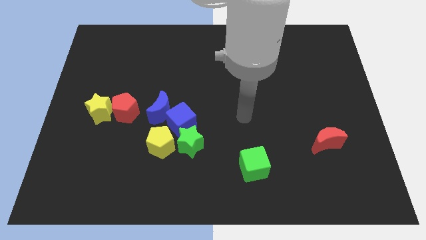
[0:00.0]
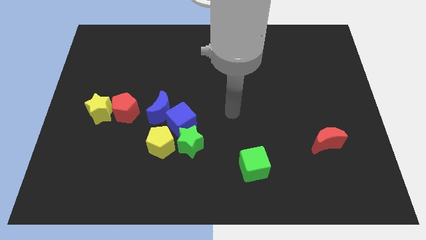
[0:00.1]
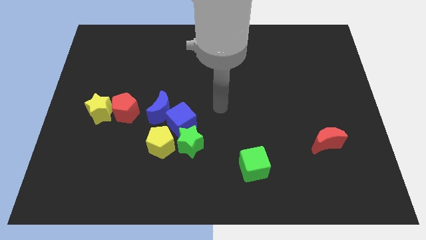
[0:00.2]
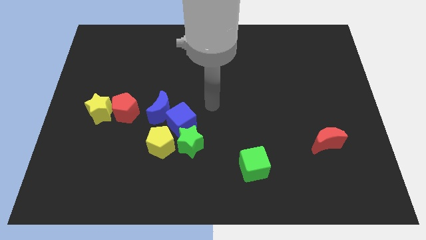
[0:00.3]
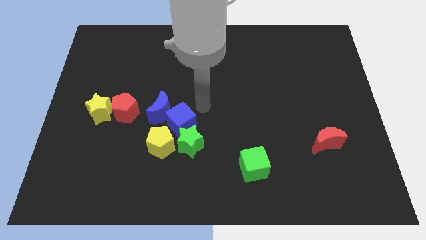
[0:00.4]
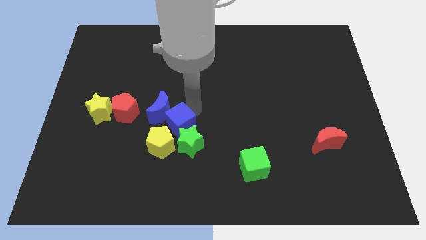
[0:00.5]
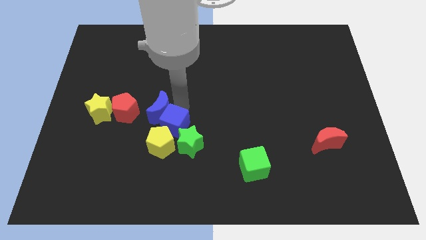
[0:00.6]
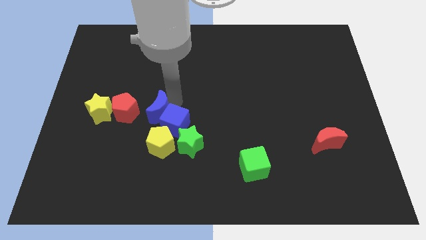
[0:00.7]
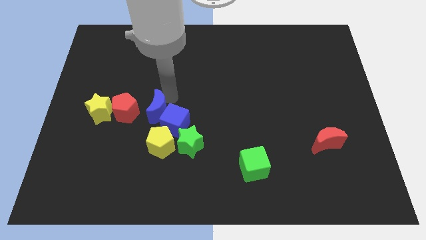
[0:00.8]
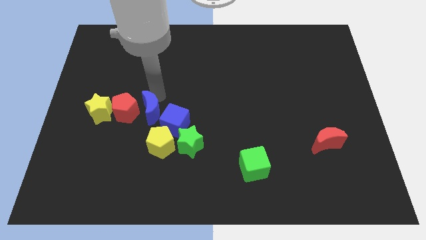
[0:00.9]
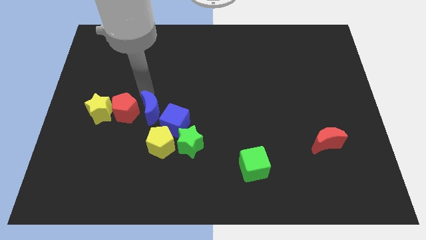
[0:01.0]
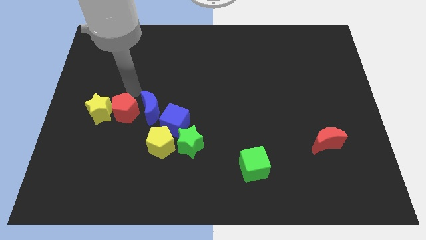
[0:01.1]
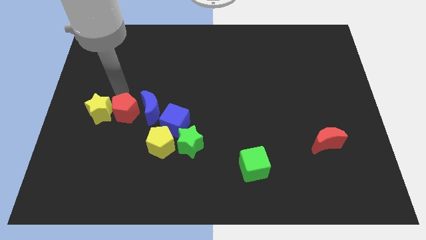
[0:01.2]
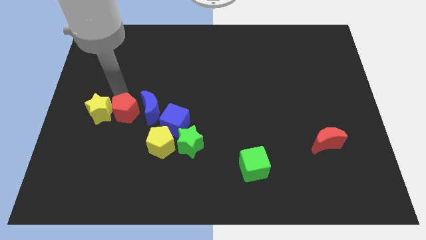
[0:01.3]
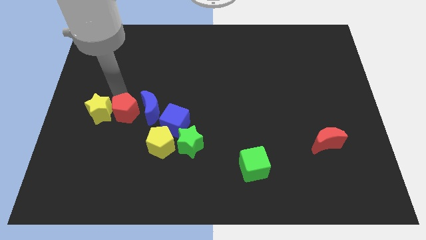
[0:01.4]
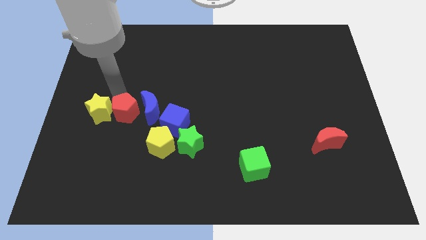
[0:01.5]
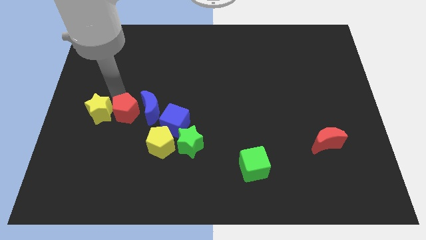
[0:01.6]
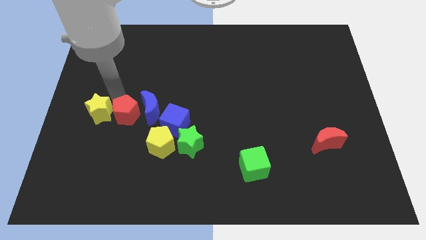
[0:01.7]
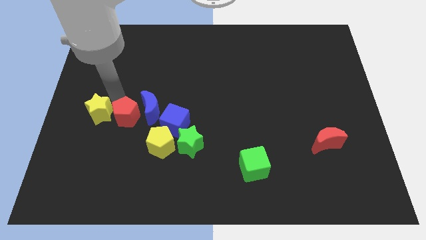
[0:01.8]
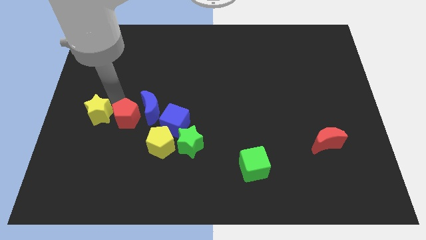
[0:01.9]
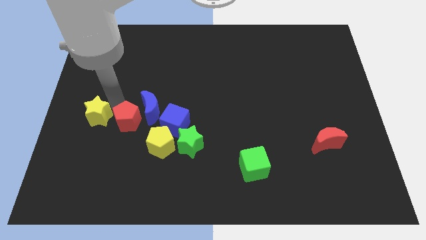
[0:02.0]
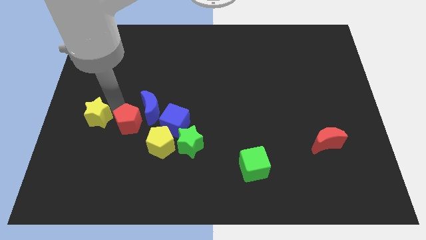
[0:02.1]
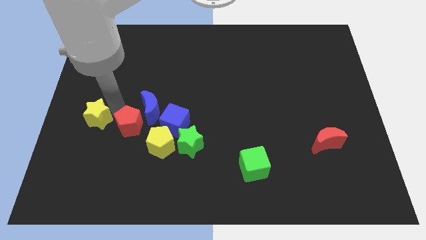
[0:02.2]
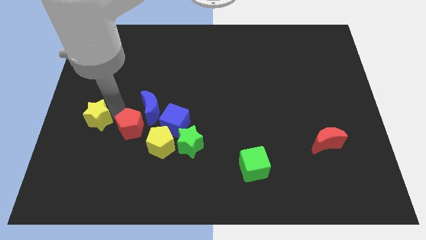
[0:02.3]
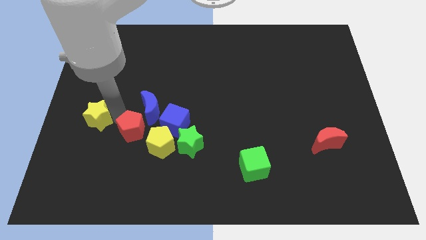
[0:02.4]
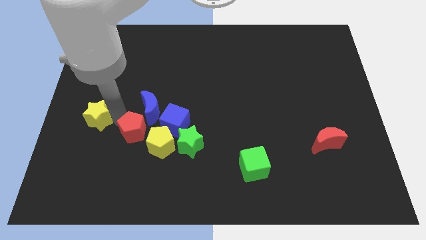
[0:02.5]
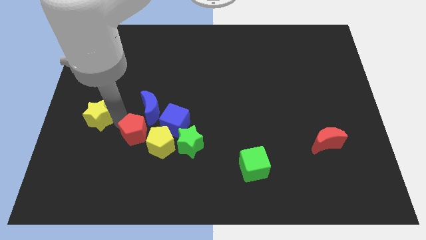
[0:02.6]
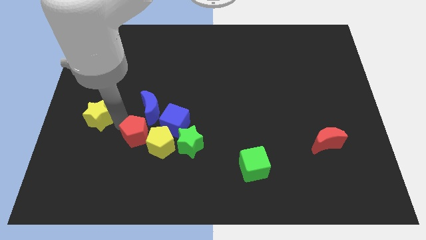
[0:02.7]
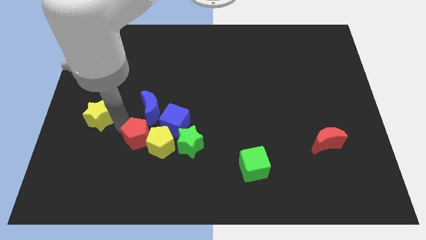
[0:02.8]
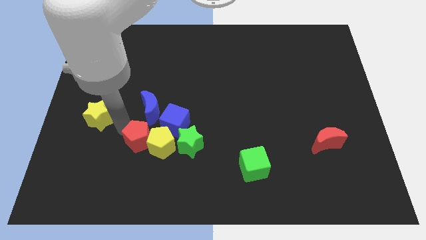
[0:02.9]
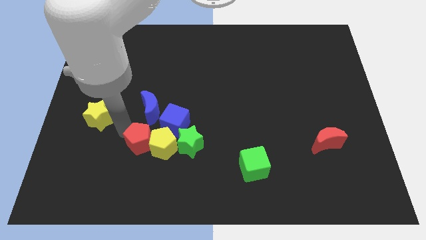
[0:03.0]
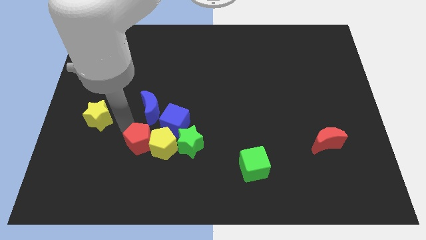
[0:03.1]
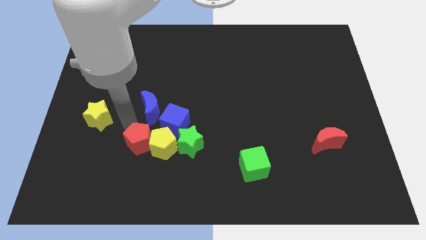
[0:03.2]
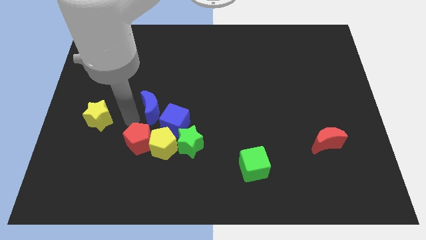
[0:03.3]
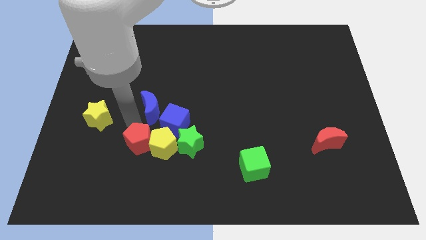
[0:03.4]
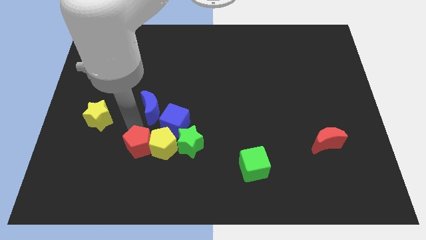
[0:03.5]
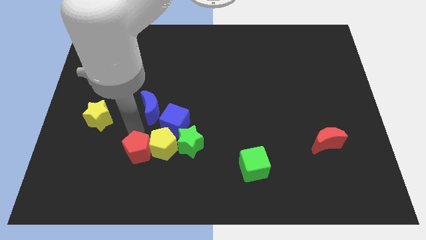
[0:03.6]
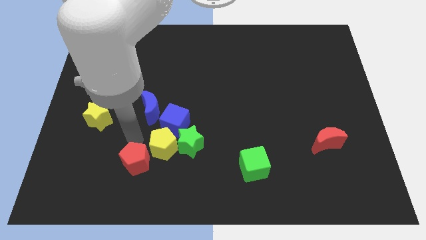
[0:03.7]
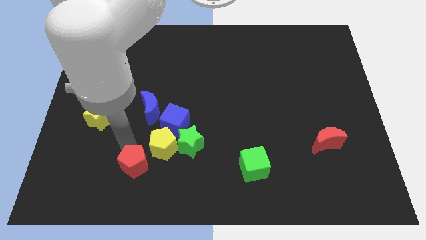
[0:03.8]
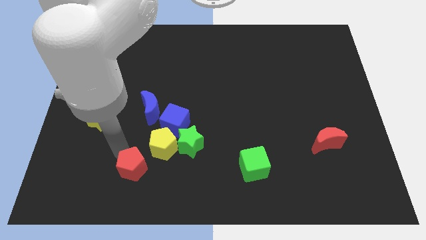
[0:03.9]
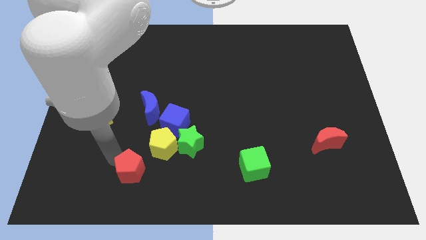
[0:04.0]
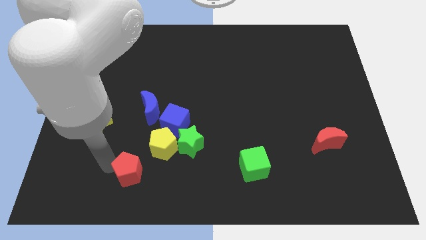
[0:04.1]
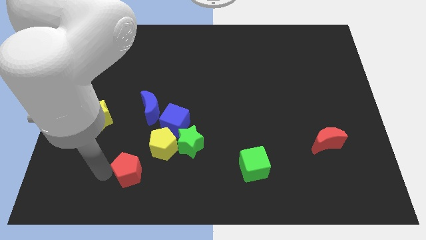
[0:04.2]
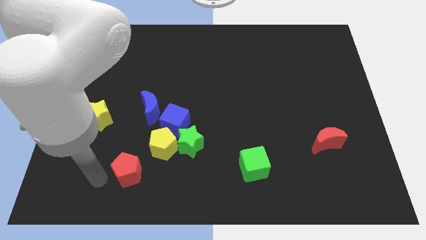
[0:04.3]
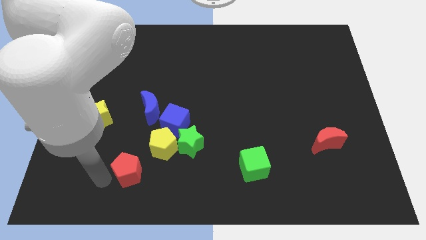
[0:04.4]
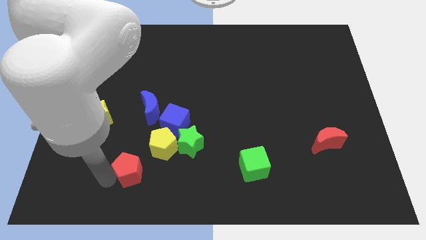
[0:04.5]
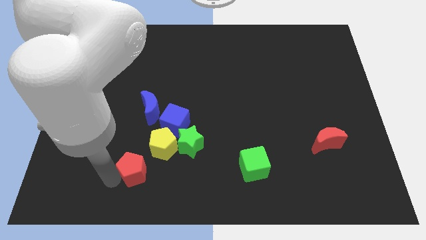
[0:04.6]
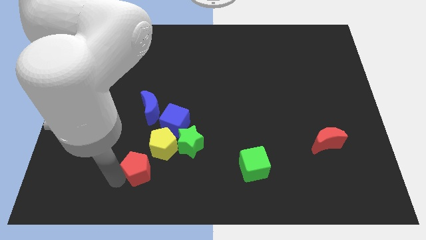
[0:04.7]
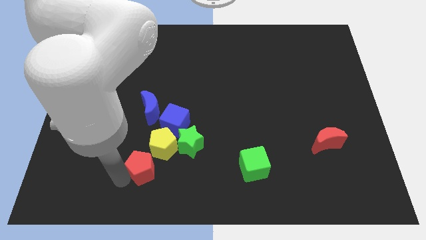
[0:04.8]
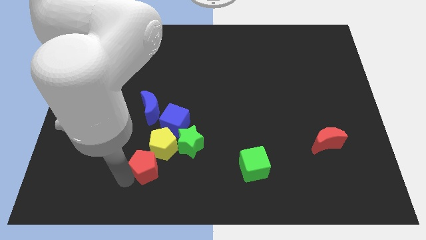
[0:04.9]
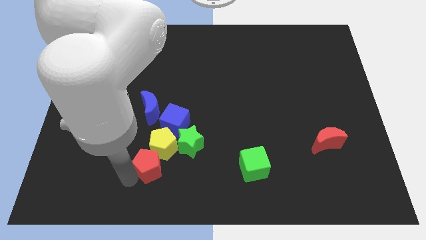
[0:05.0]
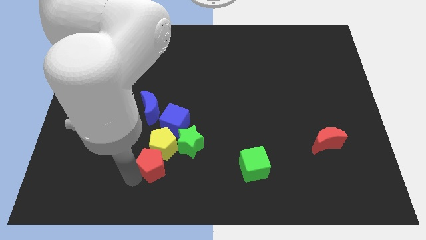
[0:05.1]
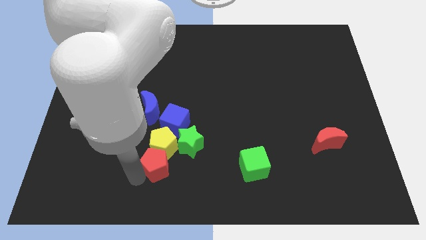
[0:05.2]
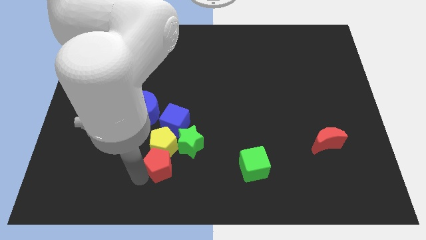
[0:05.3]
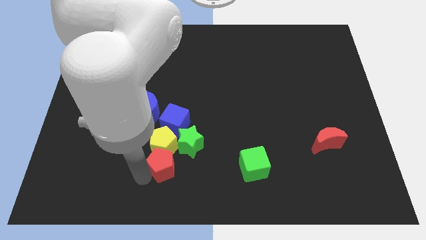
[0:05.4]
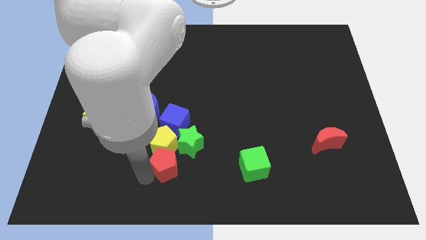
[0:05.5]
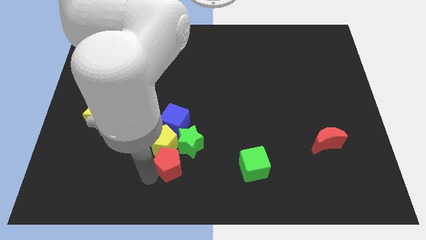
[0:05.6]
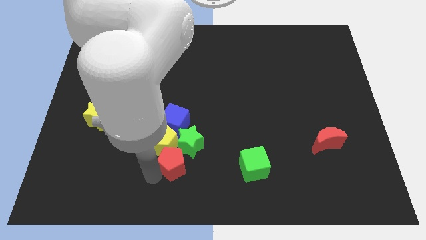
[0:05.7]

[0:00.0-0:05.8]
push the red pentagon to the green star
